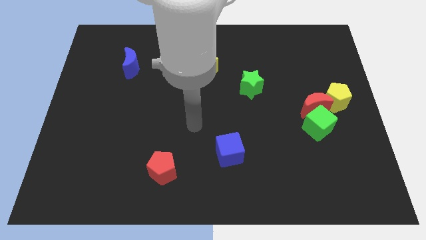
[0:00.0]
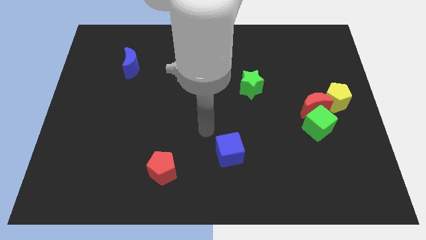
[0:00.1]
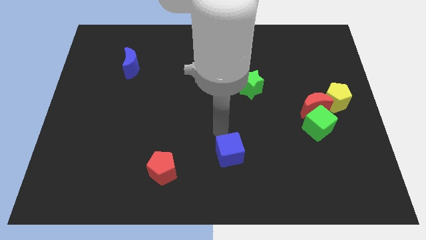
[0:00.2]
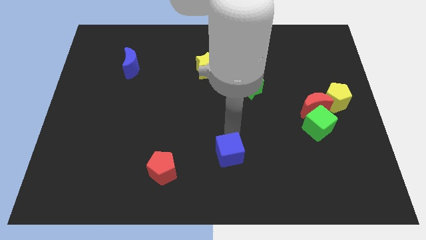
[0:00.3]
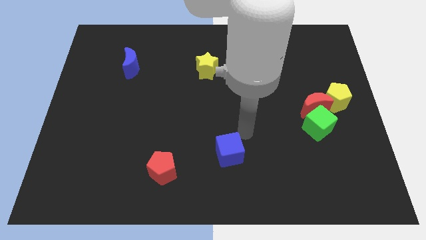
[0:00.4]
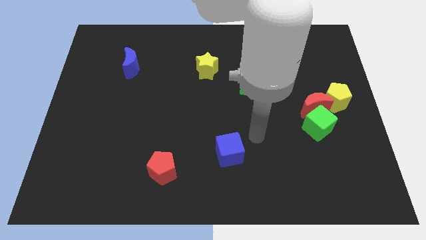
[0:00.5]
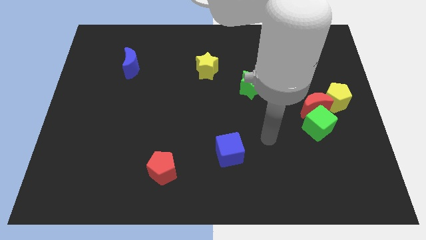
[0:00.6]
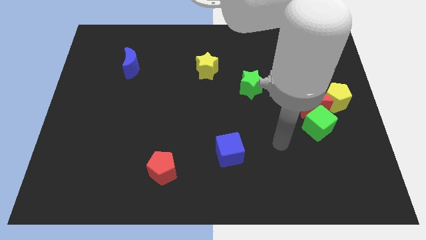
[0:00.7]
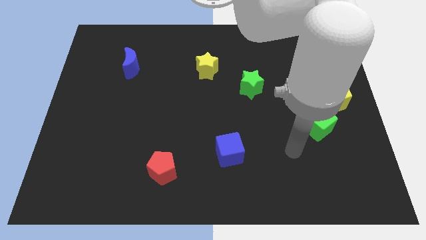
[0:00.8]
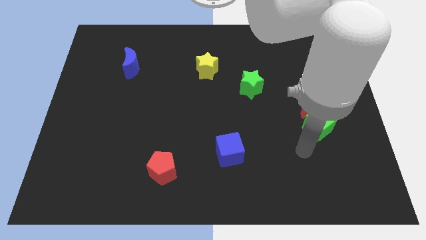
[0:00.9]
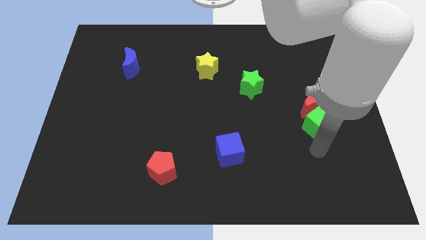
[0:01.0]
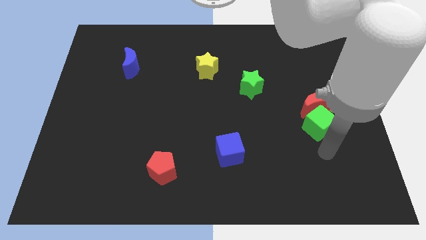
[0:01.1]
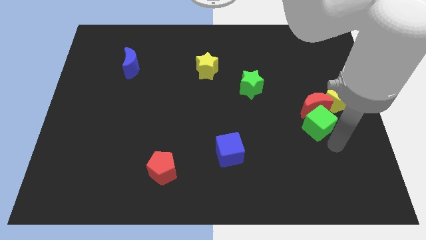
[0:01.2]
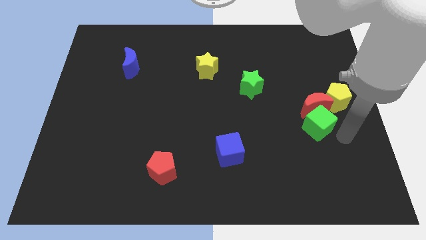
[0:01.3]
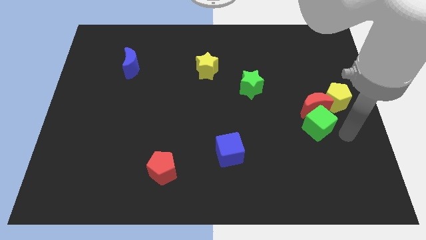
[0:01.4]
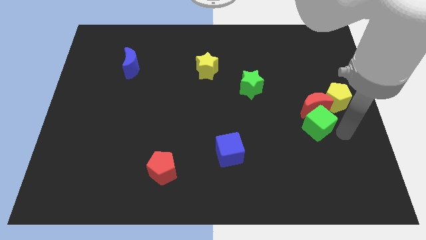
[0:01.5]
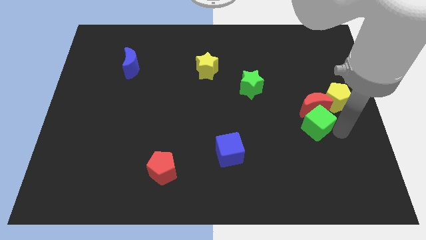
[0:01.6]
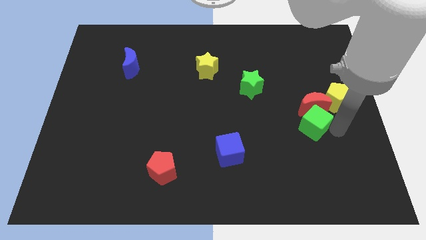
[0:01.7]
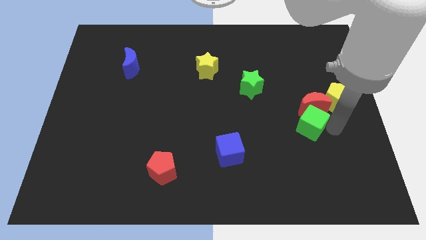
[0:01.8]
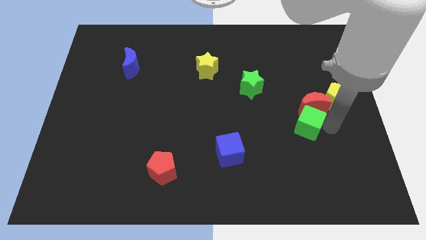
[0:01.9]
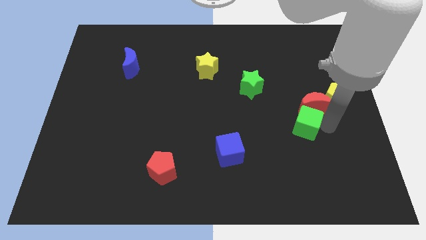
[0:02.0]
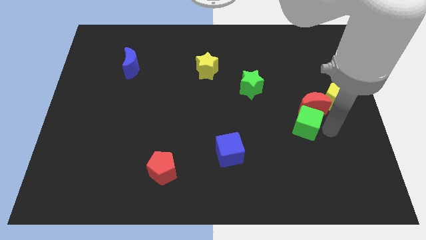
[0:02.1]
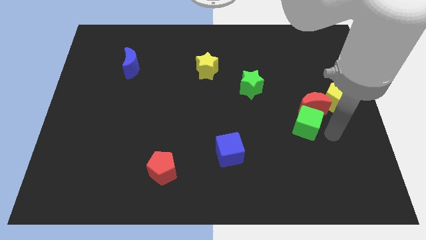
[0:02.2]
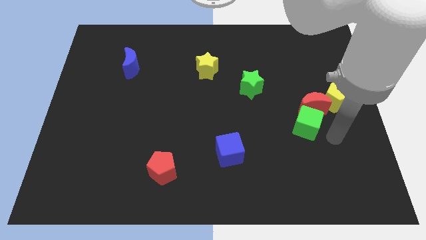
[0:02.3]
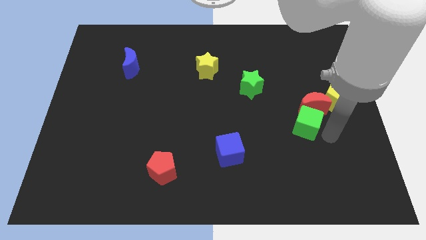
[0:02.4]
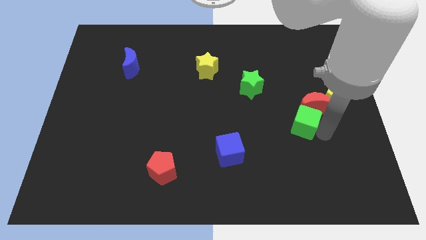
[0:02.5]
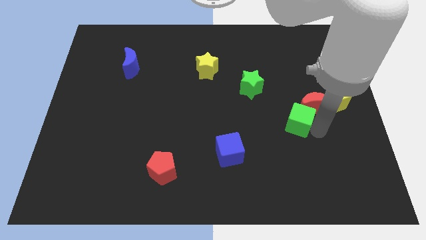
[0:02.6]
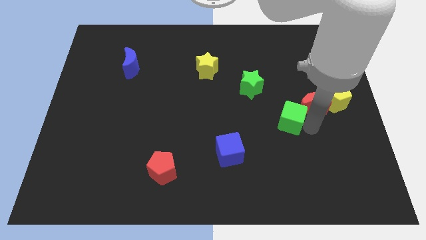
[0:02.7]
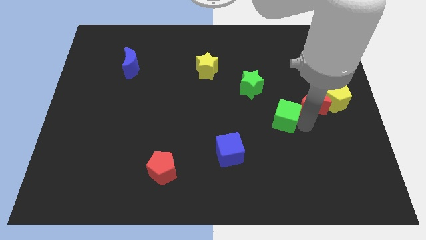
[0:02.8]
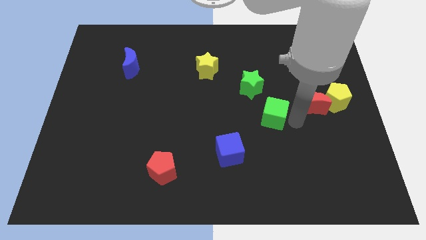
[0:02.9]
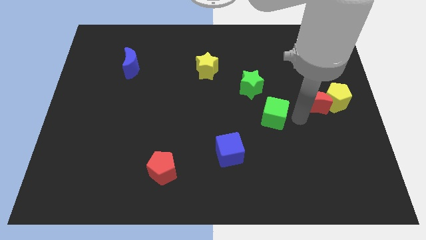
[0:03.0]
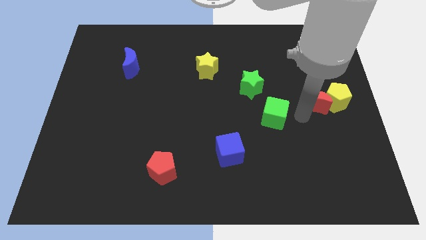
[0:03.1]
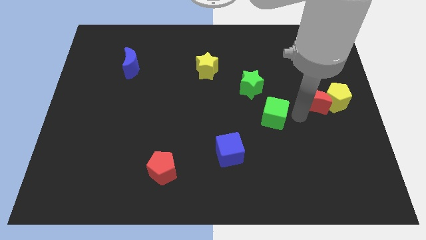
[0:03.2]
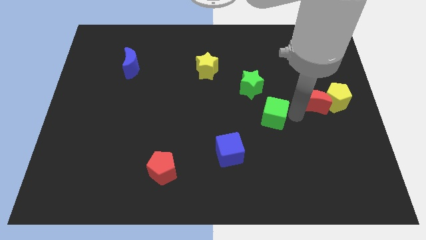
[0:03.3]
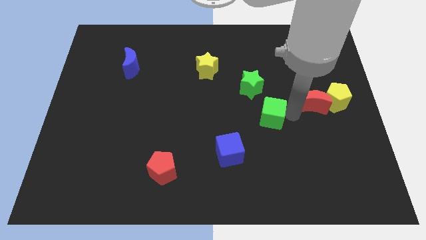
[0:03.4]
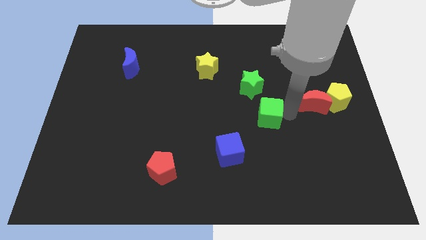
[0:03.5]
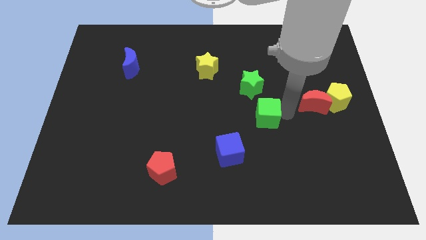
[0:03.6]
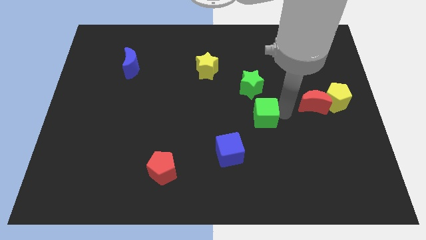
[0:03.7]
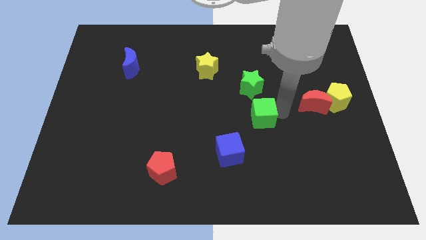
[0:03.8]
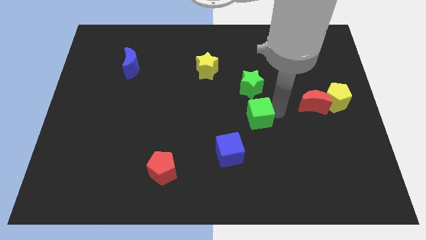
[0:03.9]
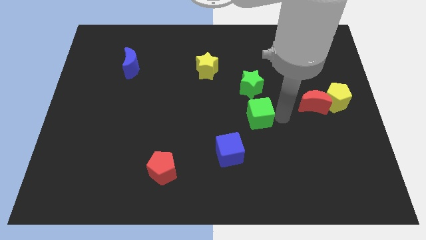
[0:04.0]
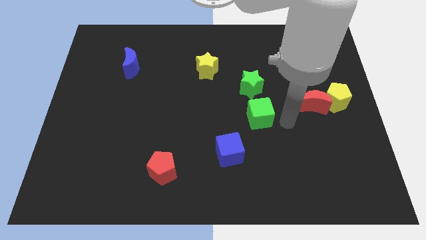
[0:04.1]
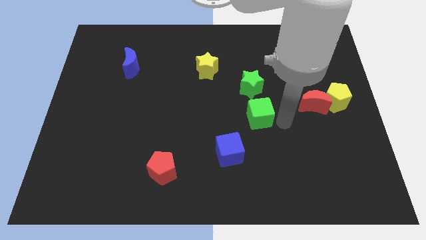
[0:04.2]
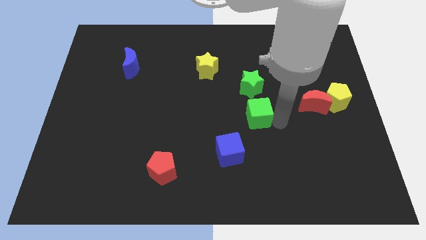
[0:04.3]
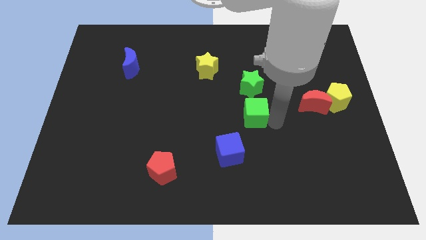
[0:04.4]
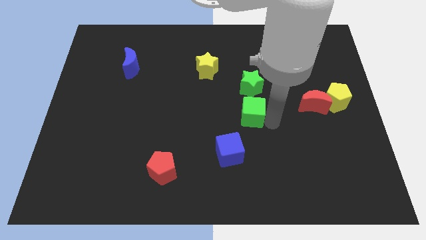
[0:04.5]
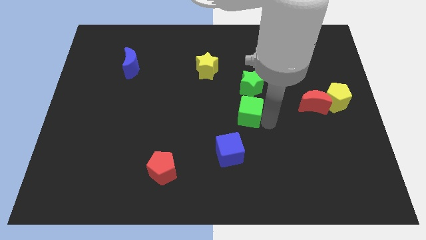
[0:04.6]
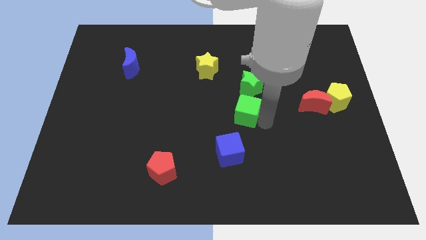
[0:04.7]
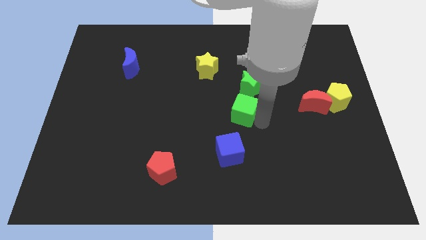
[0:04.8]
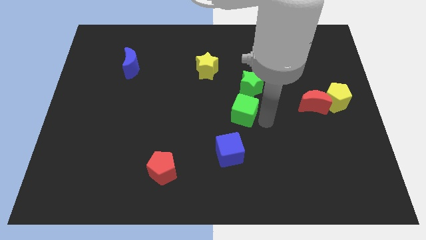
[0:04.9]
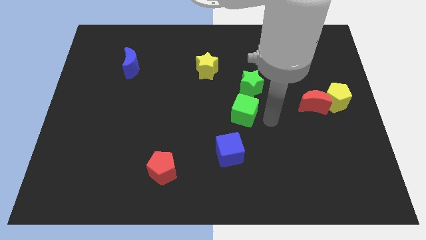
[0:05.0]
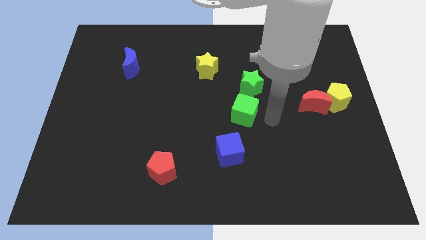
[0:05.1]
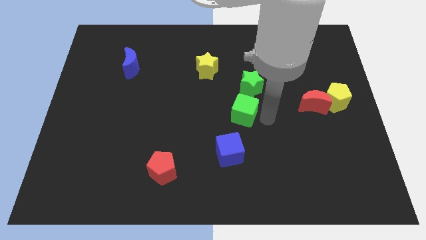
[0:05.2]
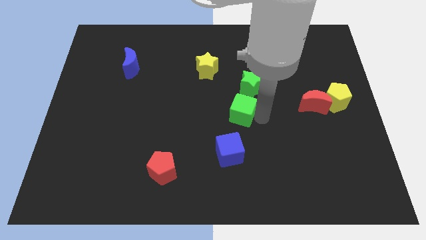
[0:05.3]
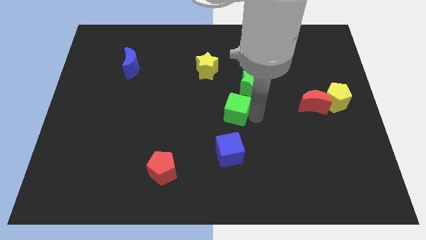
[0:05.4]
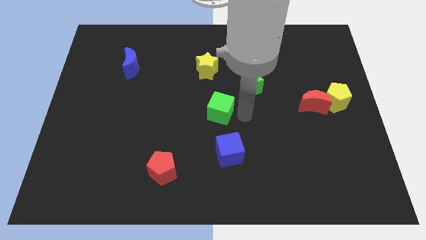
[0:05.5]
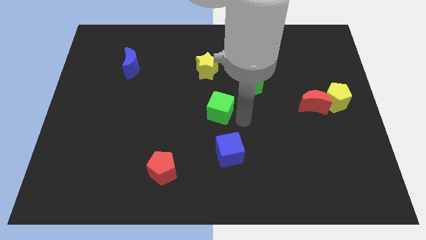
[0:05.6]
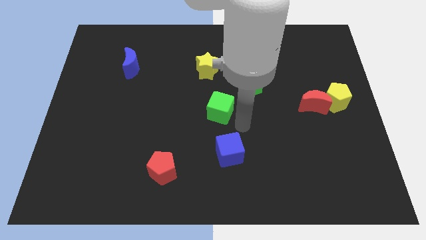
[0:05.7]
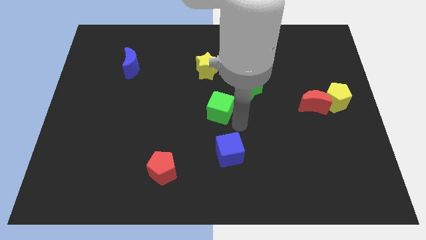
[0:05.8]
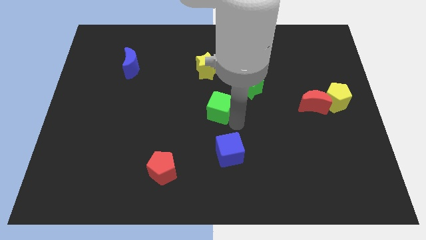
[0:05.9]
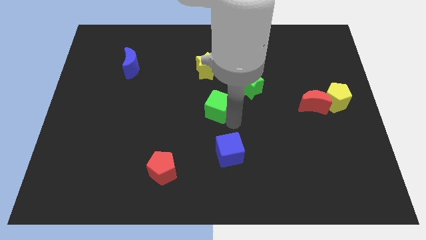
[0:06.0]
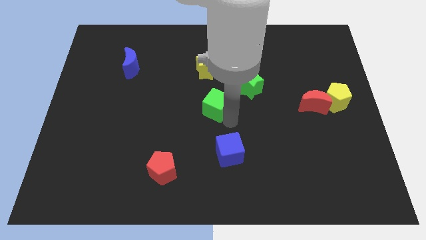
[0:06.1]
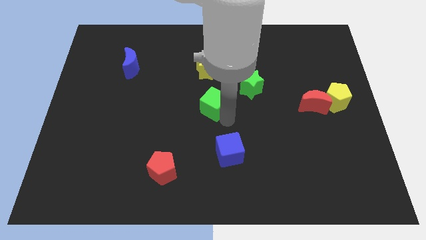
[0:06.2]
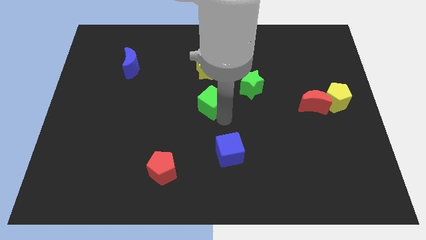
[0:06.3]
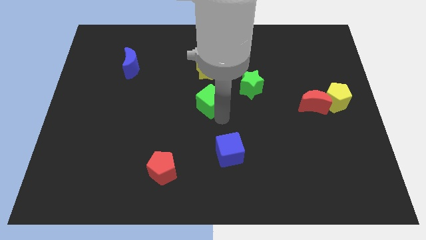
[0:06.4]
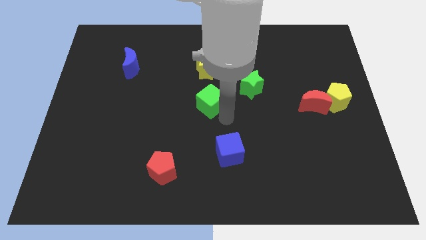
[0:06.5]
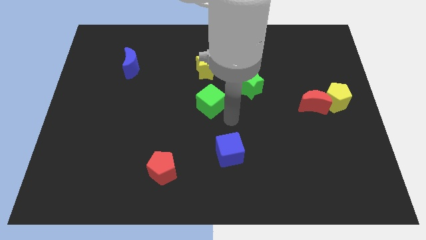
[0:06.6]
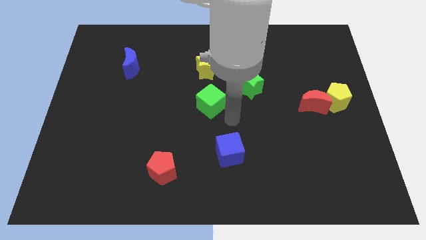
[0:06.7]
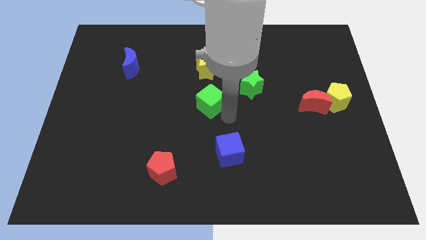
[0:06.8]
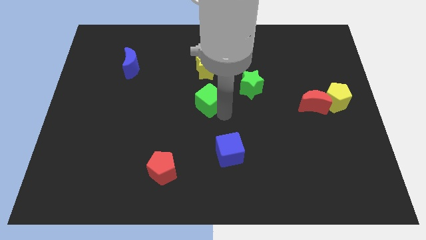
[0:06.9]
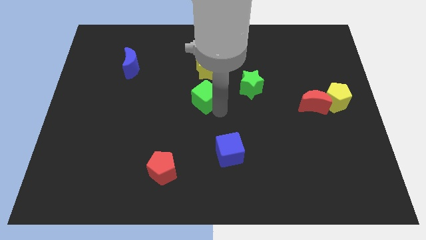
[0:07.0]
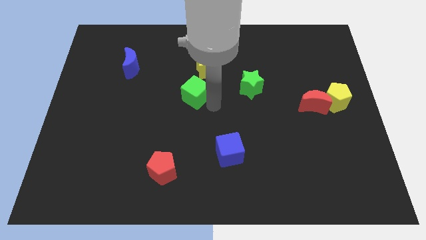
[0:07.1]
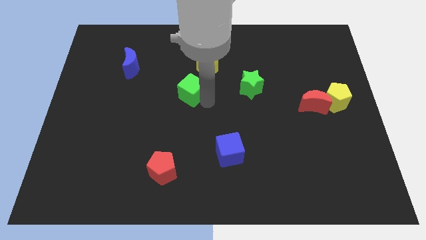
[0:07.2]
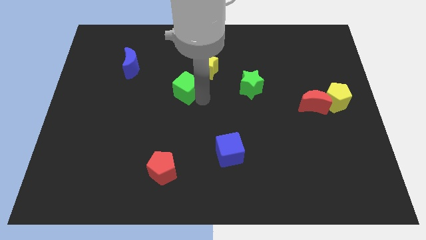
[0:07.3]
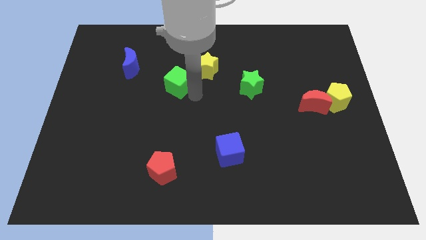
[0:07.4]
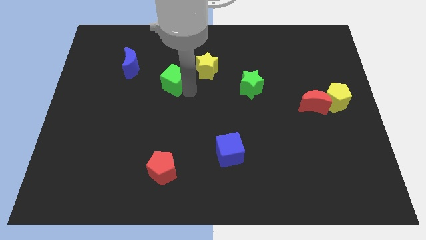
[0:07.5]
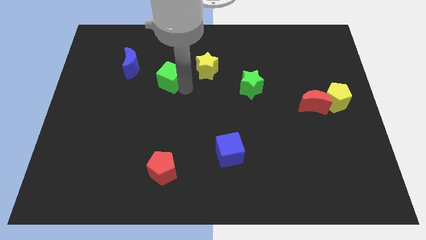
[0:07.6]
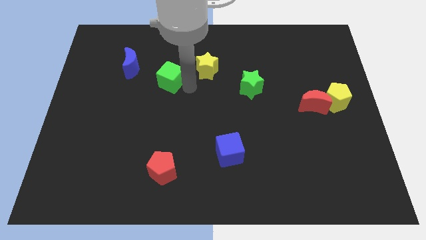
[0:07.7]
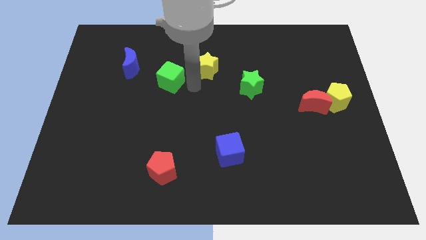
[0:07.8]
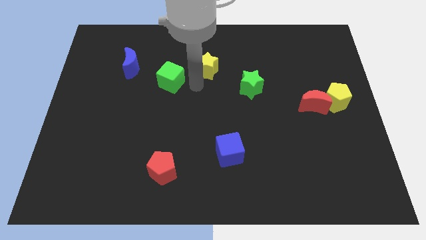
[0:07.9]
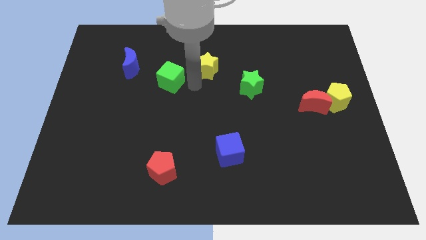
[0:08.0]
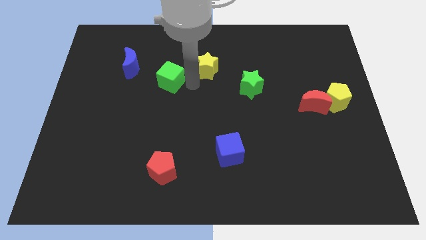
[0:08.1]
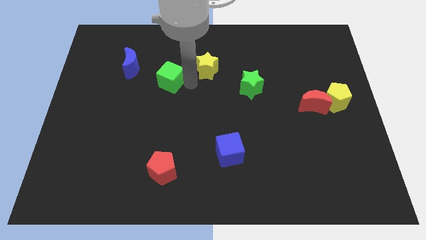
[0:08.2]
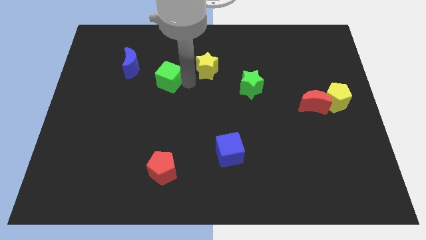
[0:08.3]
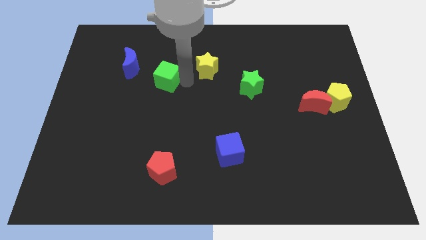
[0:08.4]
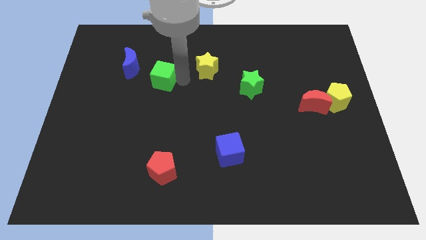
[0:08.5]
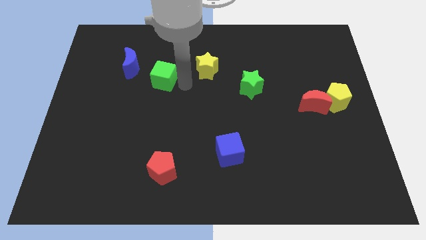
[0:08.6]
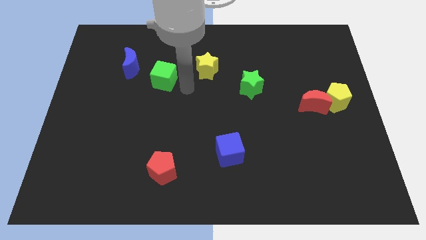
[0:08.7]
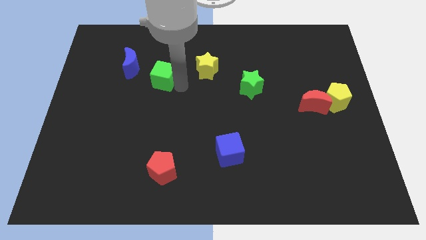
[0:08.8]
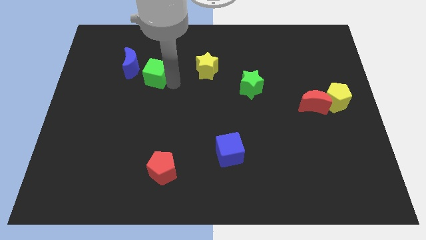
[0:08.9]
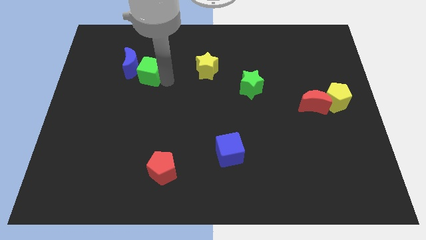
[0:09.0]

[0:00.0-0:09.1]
slide the green cube to the blue moon
